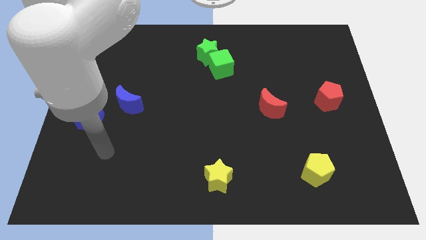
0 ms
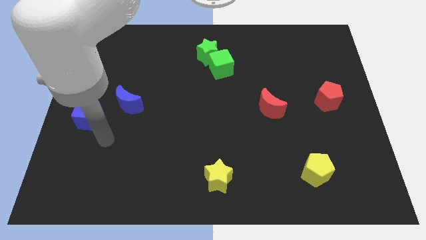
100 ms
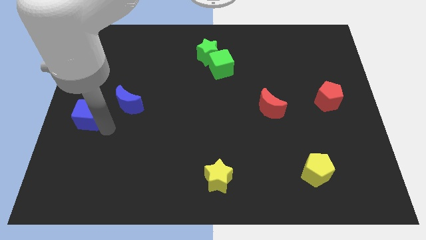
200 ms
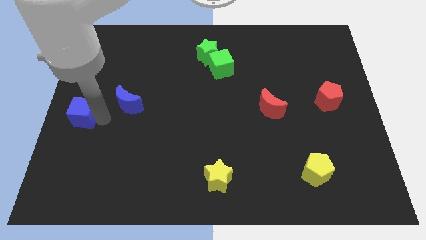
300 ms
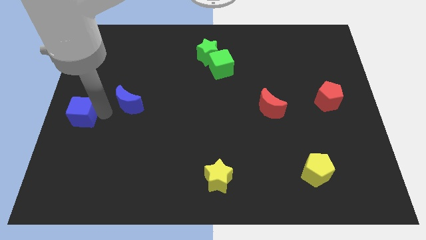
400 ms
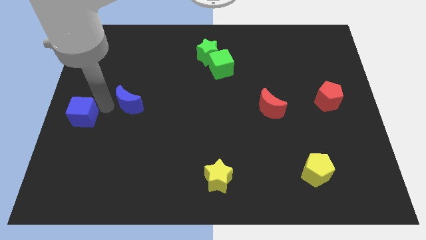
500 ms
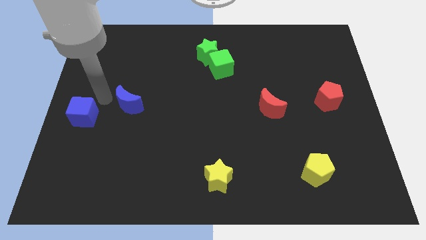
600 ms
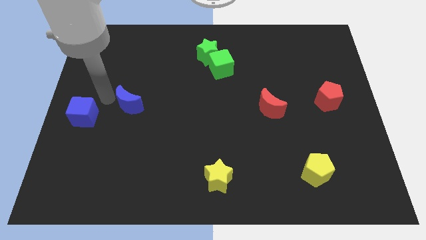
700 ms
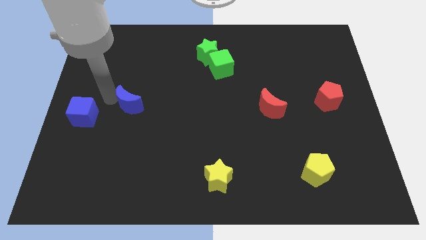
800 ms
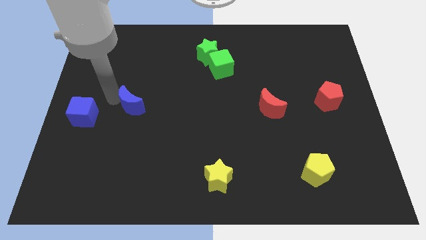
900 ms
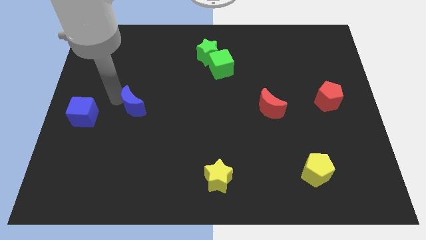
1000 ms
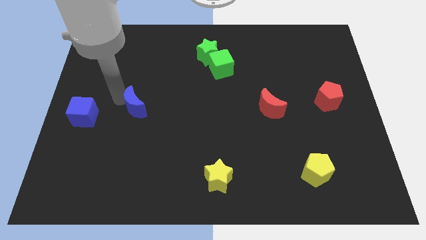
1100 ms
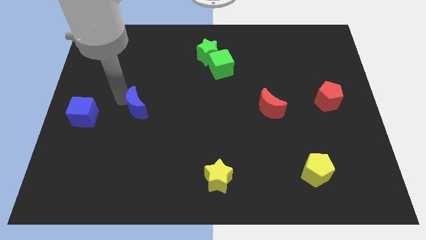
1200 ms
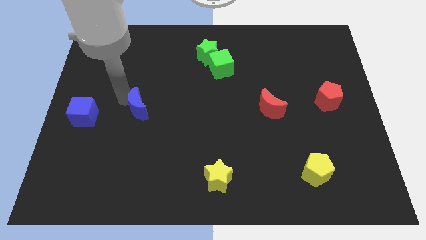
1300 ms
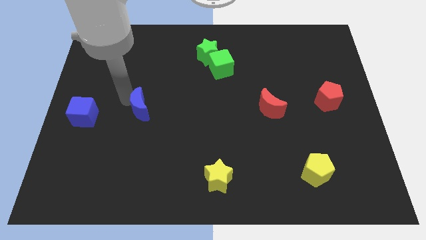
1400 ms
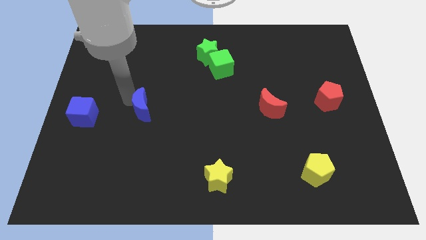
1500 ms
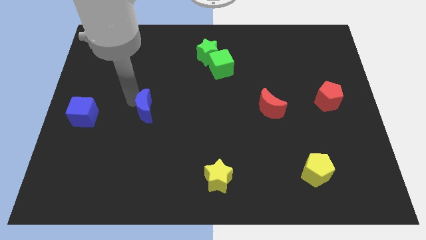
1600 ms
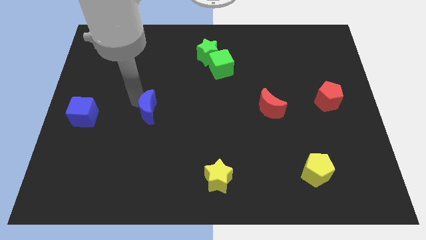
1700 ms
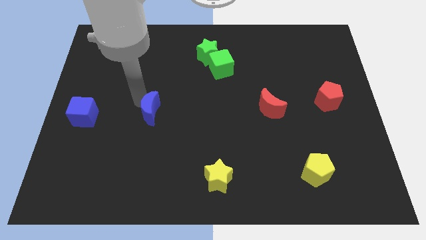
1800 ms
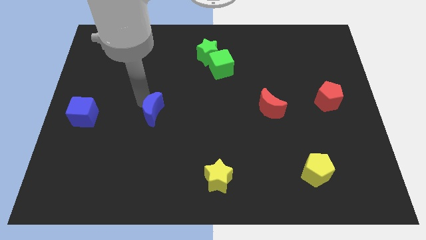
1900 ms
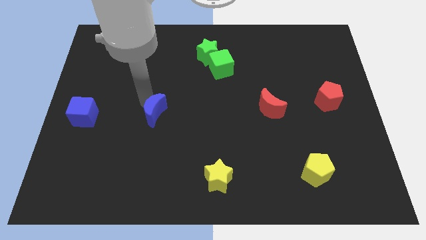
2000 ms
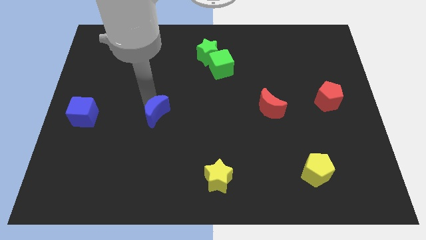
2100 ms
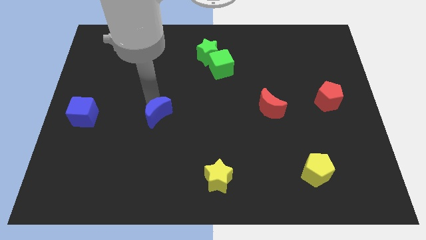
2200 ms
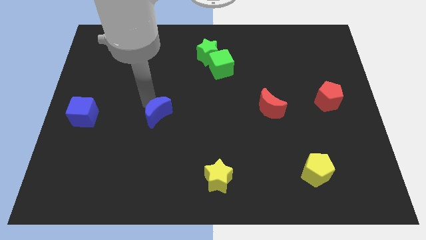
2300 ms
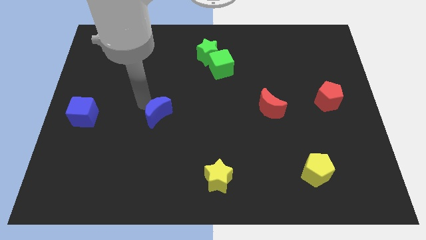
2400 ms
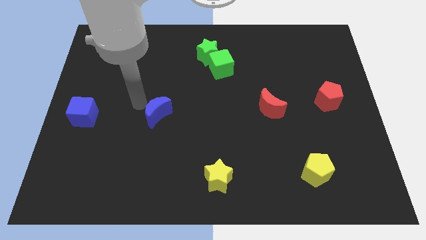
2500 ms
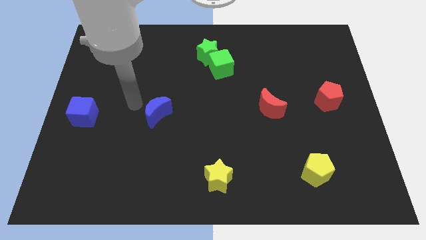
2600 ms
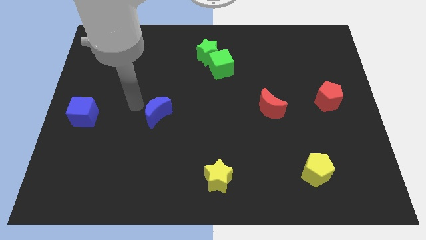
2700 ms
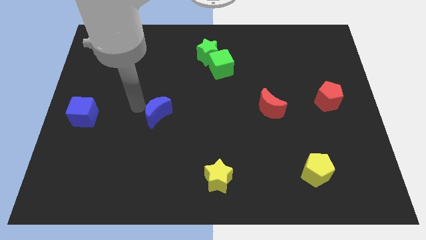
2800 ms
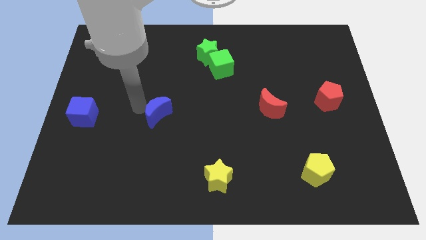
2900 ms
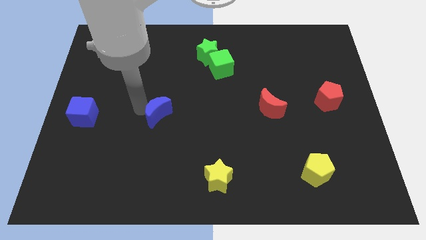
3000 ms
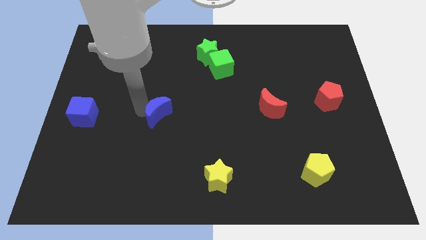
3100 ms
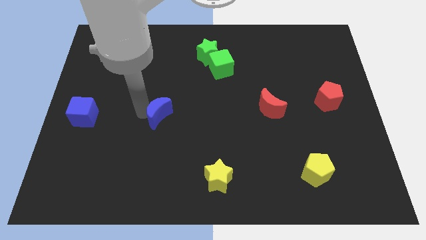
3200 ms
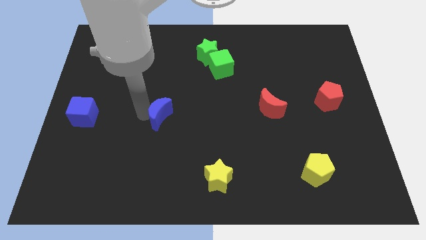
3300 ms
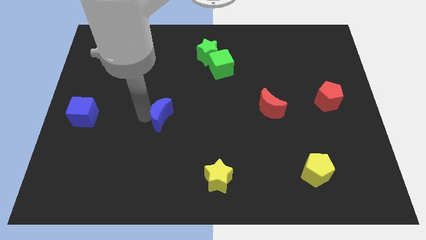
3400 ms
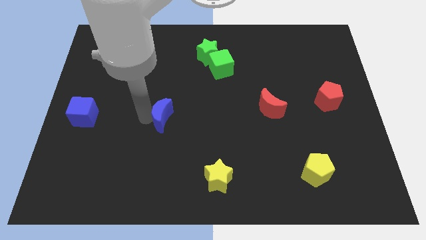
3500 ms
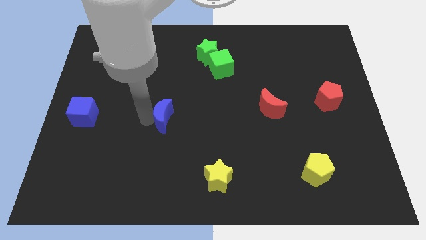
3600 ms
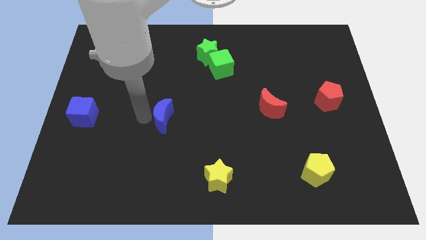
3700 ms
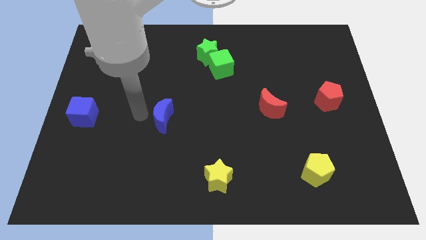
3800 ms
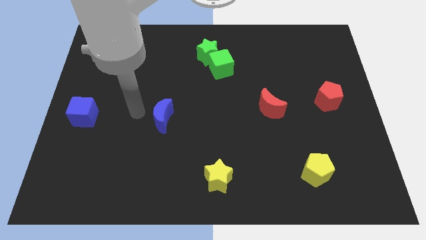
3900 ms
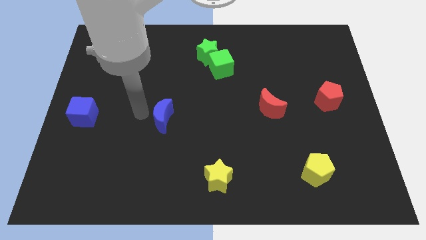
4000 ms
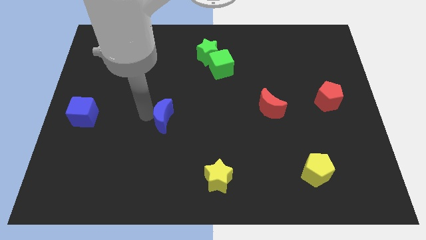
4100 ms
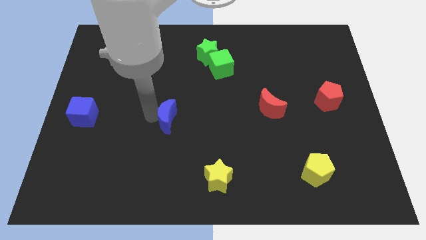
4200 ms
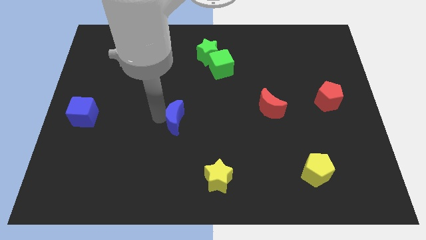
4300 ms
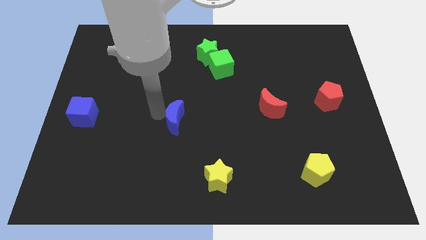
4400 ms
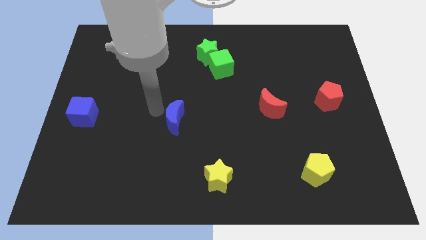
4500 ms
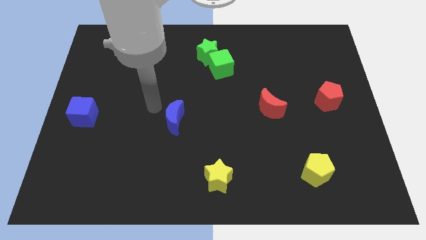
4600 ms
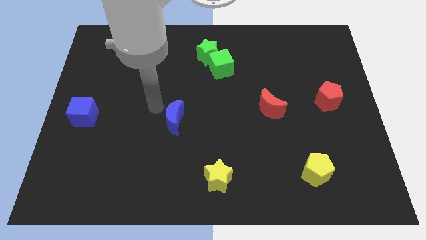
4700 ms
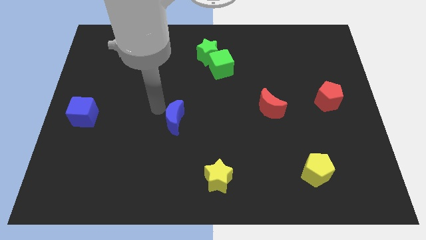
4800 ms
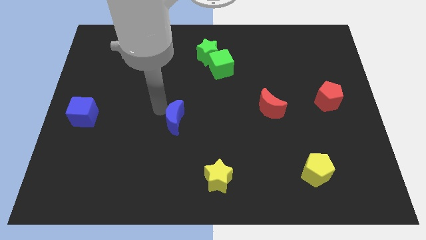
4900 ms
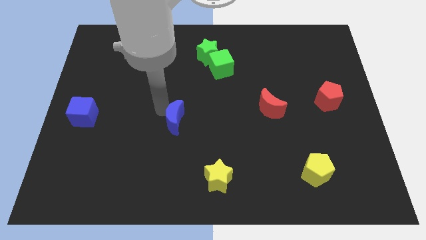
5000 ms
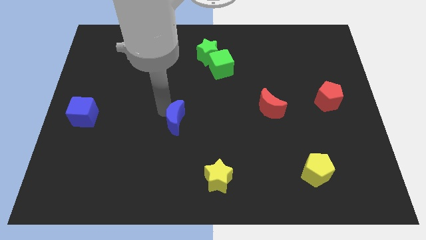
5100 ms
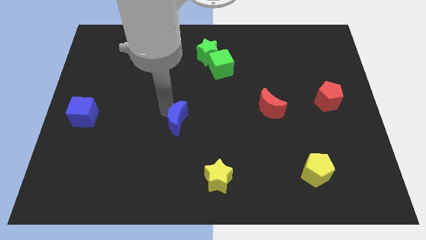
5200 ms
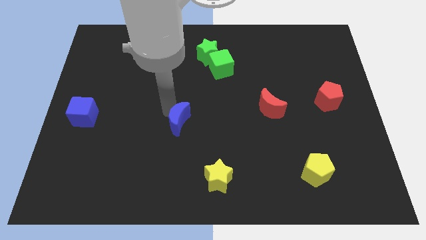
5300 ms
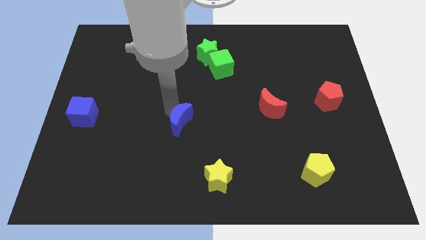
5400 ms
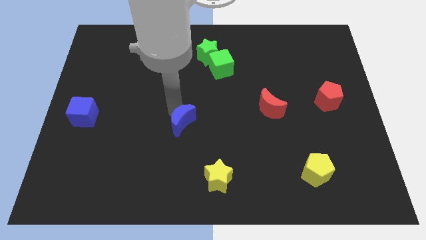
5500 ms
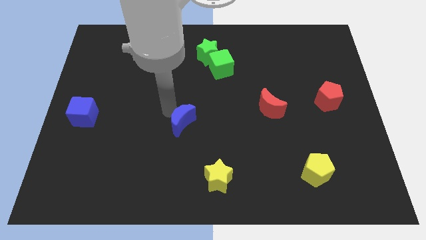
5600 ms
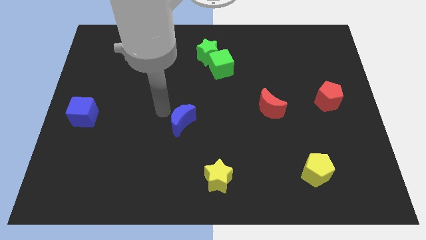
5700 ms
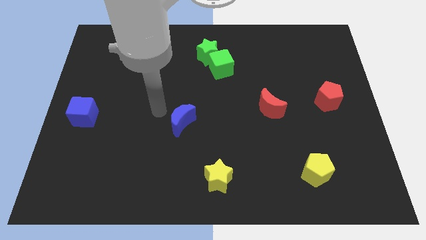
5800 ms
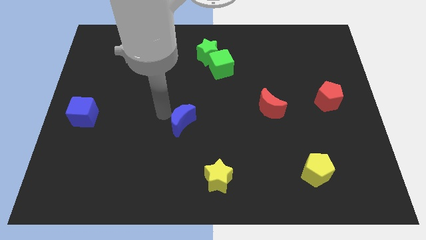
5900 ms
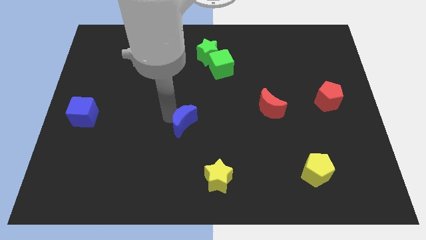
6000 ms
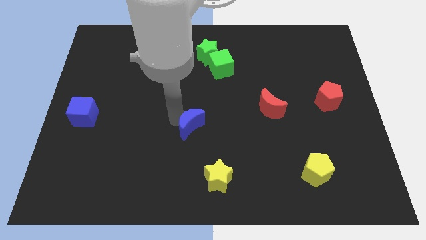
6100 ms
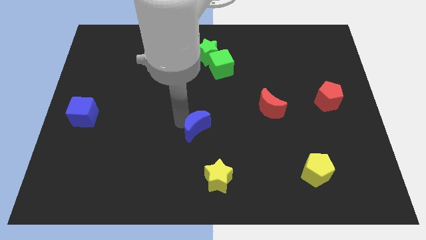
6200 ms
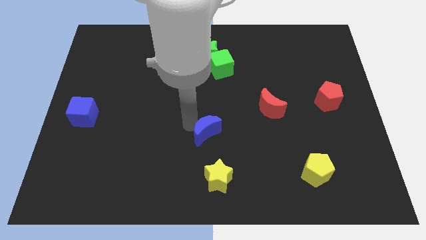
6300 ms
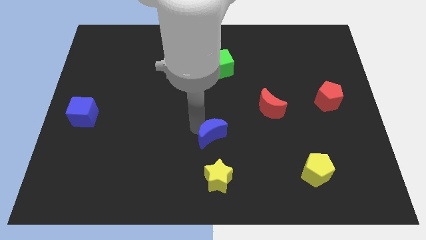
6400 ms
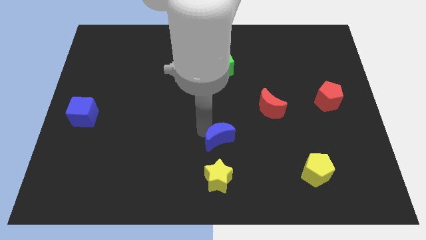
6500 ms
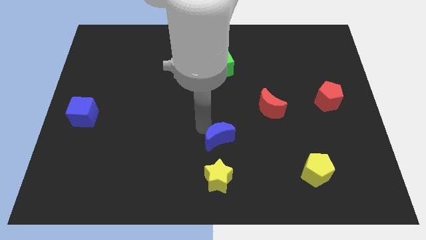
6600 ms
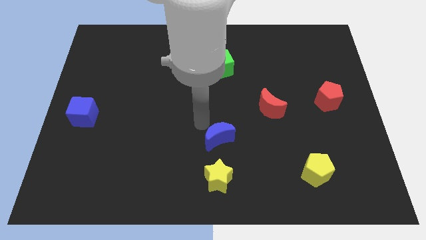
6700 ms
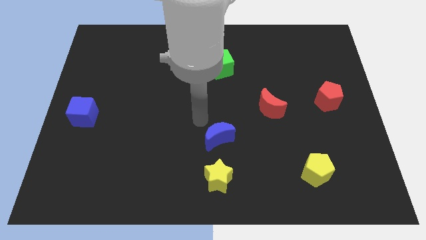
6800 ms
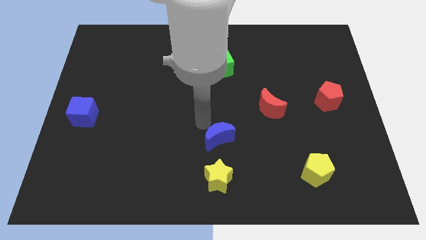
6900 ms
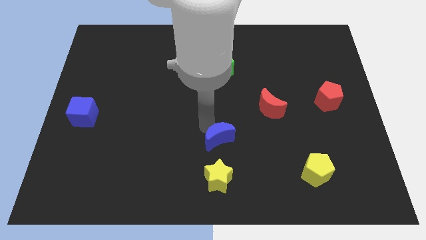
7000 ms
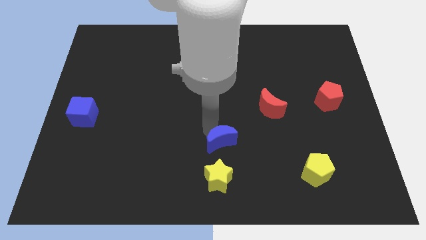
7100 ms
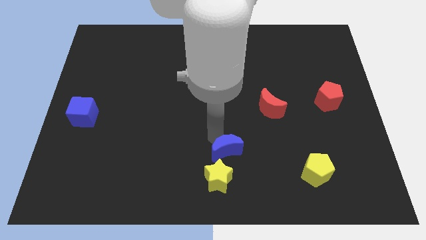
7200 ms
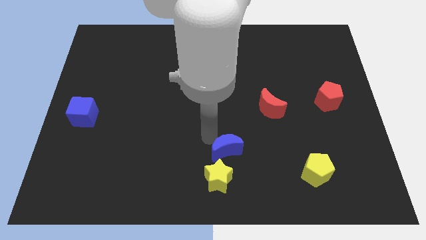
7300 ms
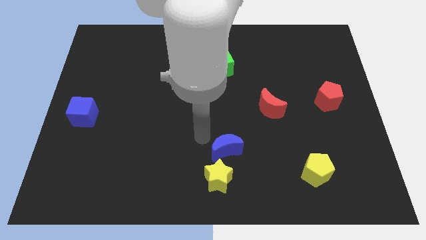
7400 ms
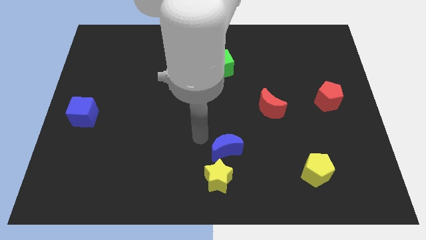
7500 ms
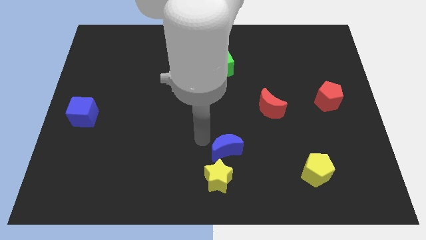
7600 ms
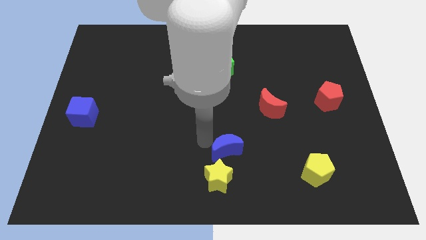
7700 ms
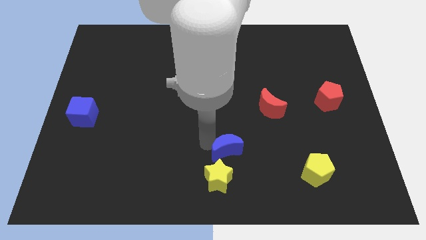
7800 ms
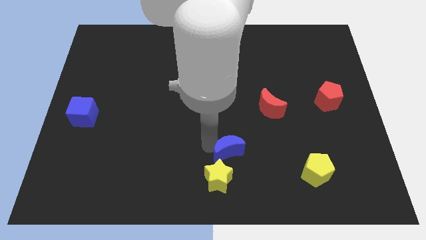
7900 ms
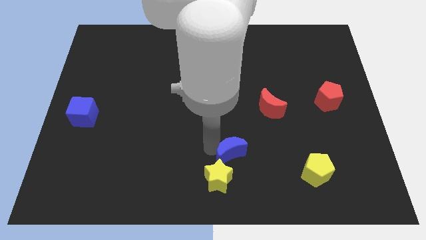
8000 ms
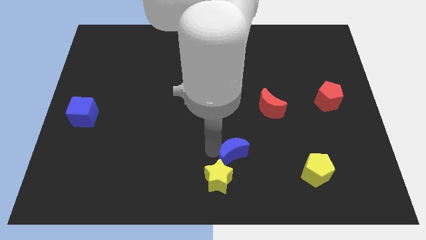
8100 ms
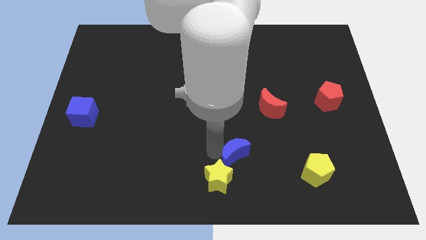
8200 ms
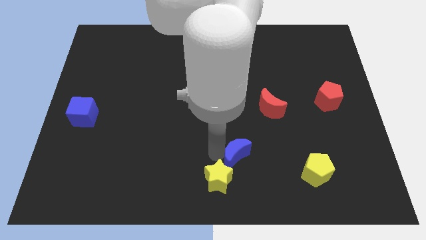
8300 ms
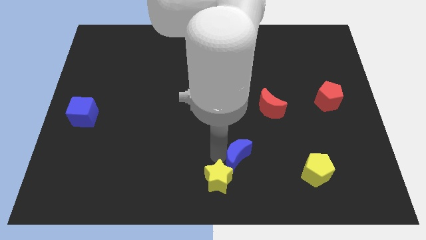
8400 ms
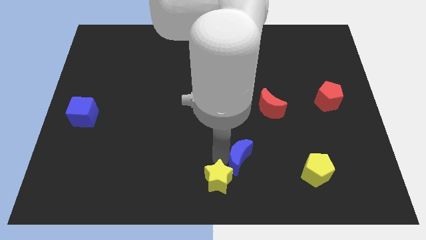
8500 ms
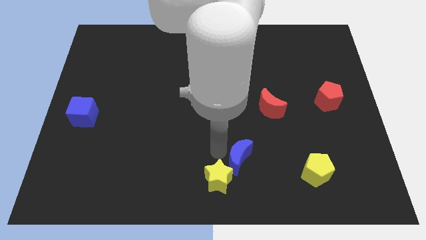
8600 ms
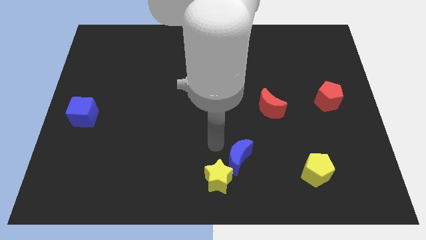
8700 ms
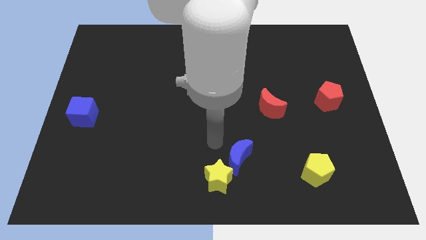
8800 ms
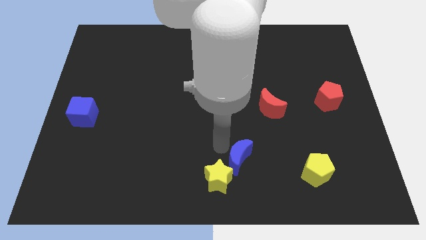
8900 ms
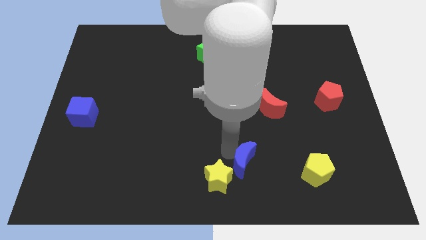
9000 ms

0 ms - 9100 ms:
move the blue moon to the right side of the yellow star
